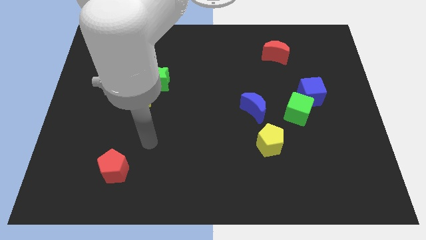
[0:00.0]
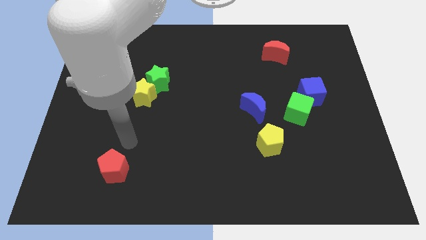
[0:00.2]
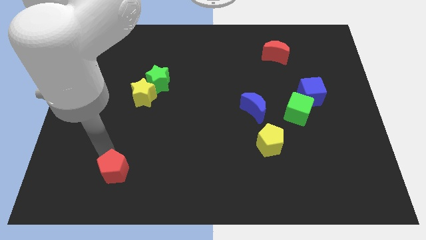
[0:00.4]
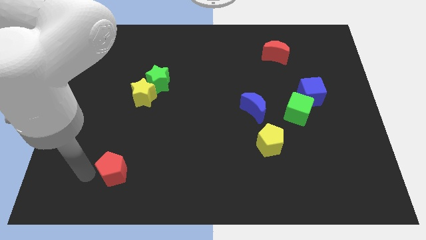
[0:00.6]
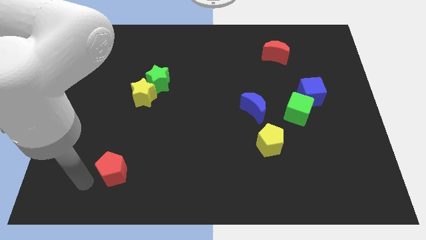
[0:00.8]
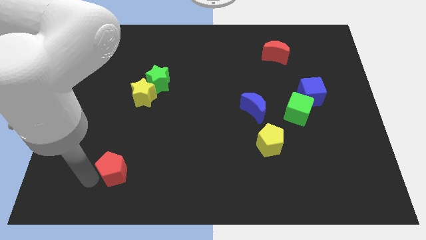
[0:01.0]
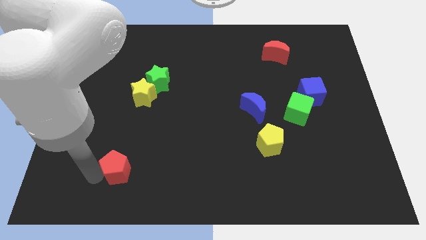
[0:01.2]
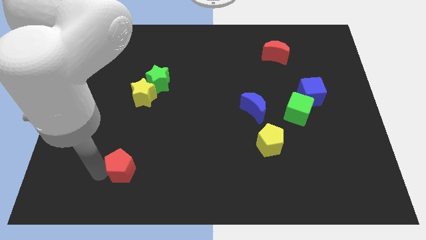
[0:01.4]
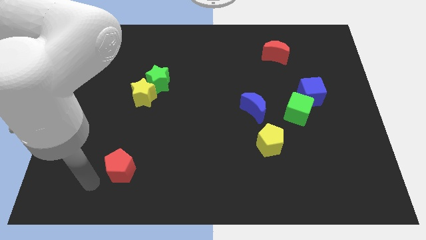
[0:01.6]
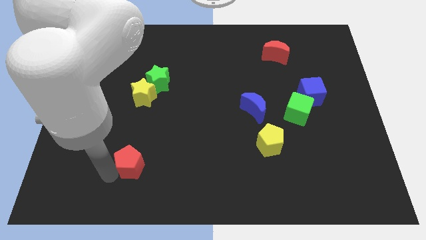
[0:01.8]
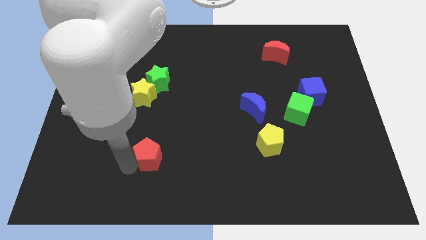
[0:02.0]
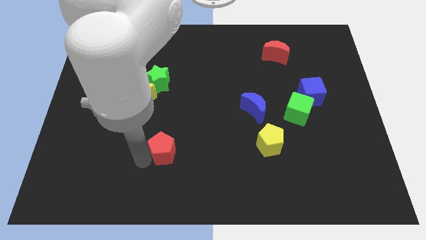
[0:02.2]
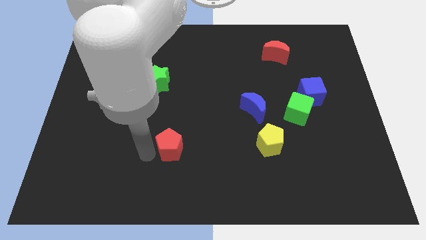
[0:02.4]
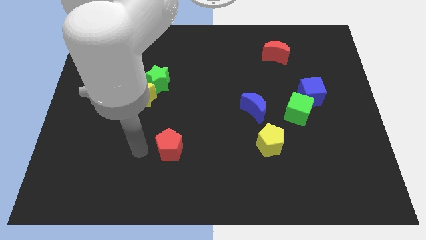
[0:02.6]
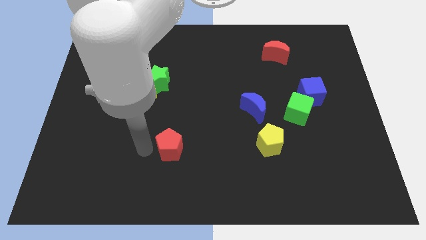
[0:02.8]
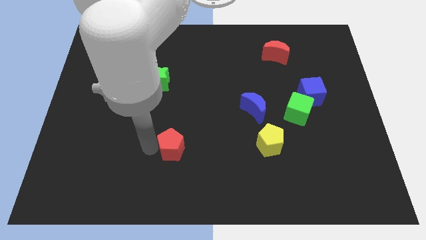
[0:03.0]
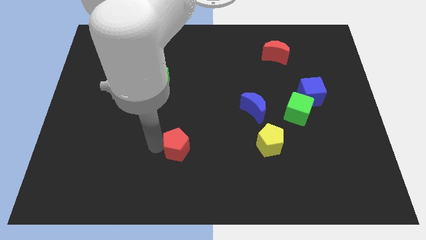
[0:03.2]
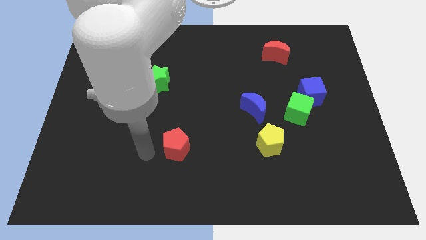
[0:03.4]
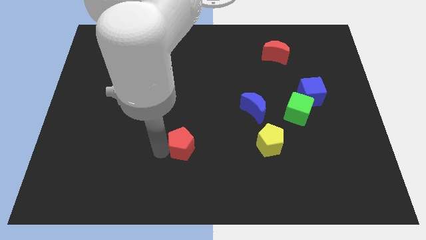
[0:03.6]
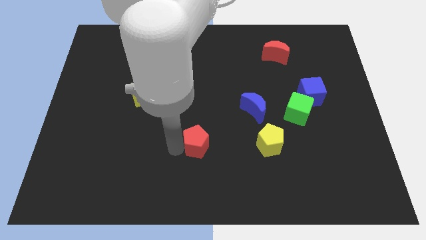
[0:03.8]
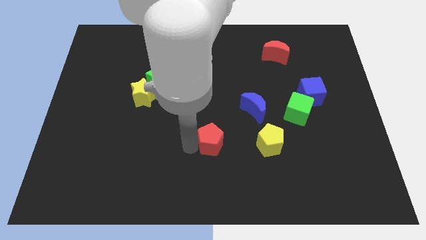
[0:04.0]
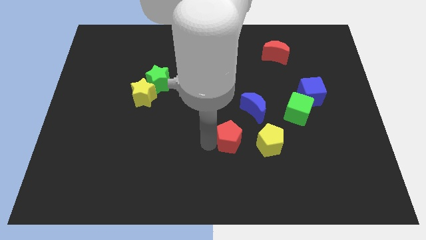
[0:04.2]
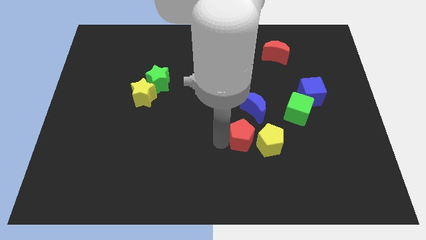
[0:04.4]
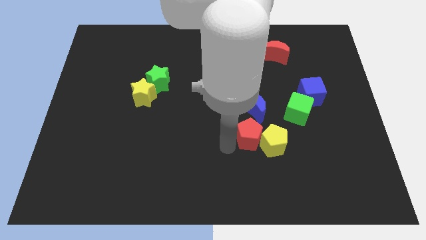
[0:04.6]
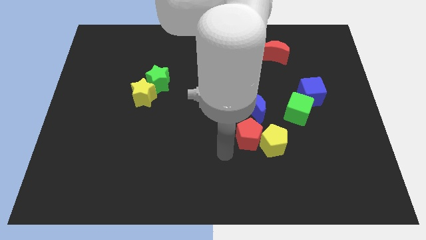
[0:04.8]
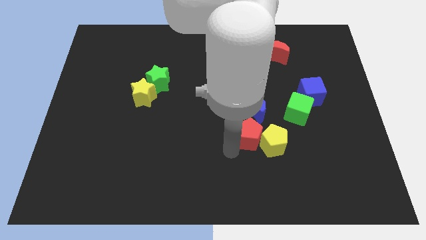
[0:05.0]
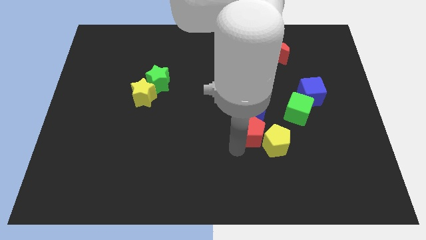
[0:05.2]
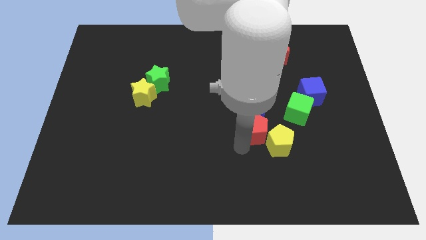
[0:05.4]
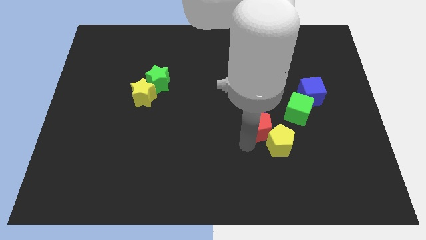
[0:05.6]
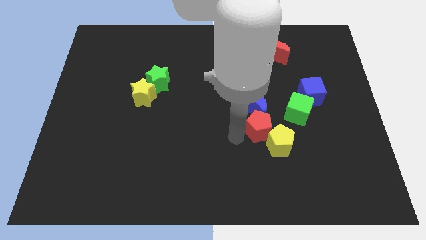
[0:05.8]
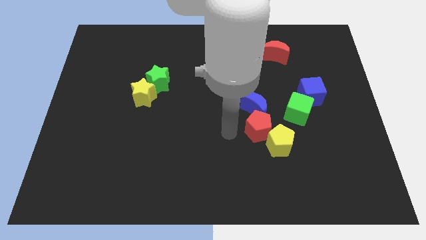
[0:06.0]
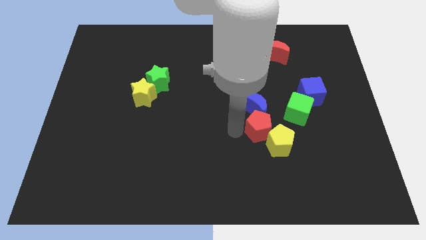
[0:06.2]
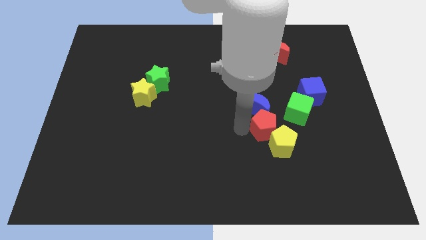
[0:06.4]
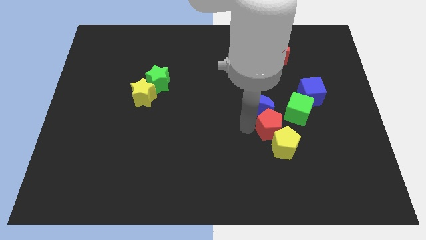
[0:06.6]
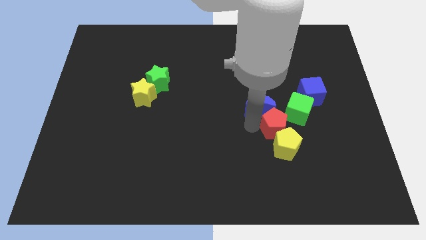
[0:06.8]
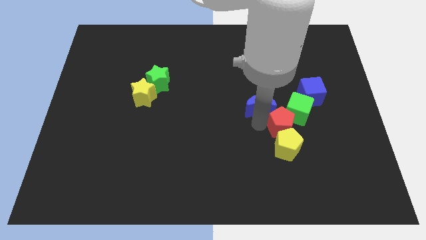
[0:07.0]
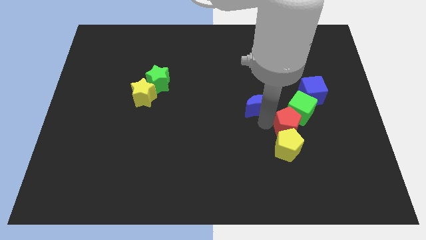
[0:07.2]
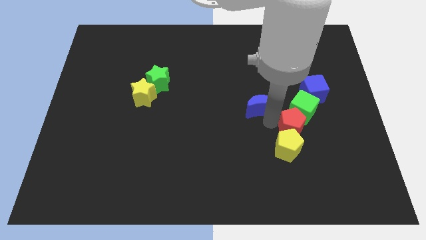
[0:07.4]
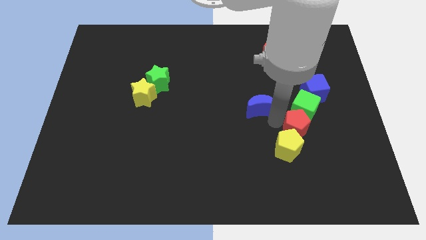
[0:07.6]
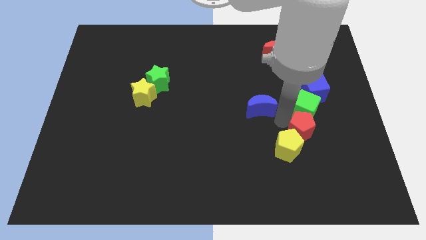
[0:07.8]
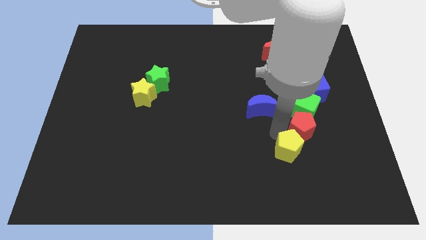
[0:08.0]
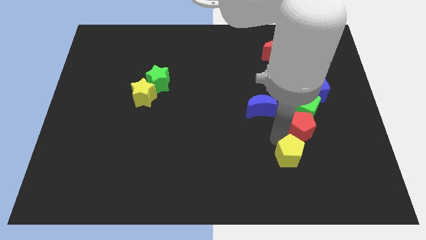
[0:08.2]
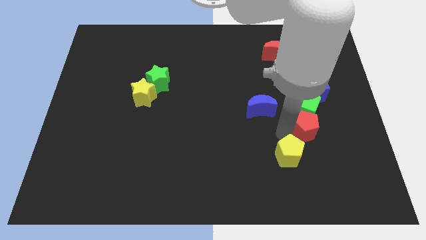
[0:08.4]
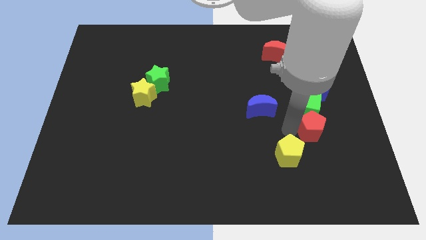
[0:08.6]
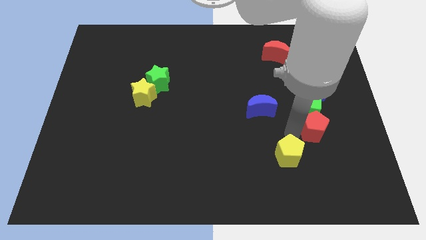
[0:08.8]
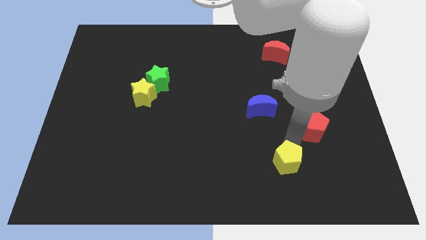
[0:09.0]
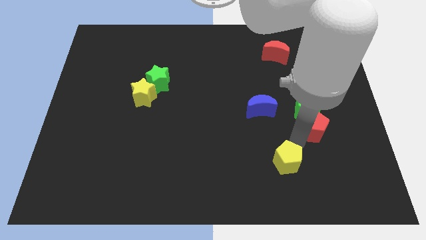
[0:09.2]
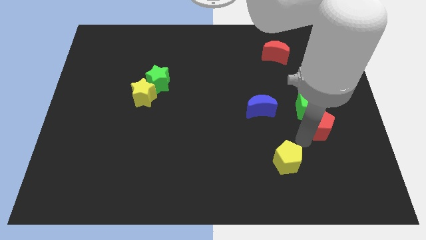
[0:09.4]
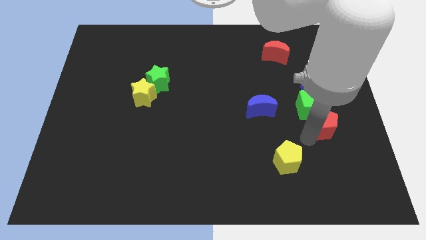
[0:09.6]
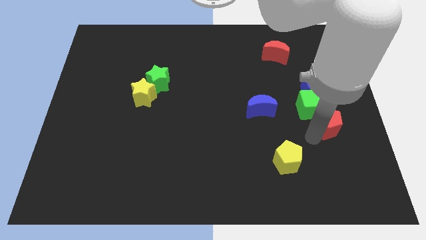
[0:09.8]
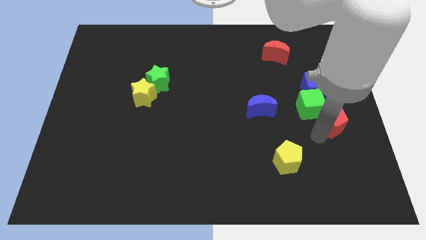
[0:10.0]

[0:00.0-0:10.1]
move the red pentagon to the right side

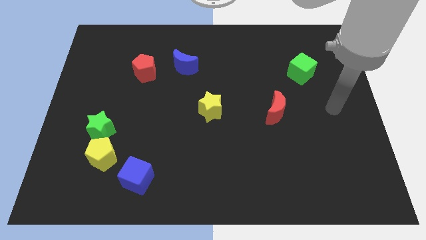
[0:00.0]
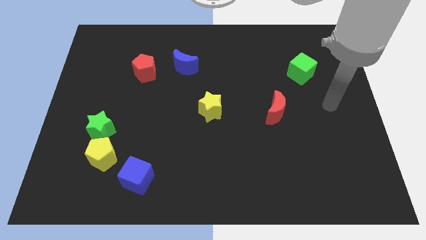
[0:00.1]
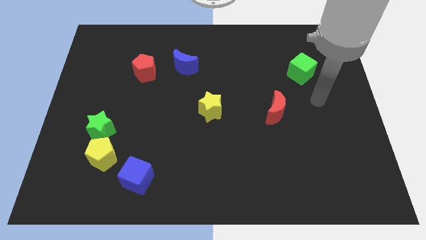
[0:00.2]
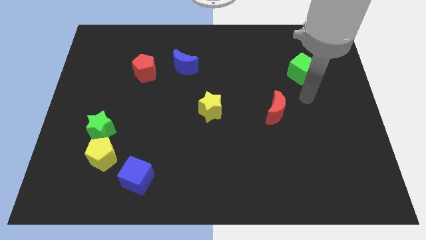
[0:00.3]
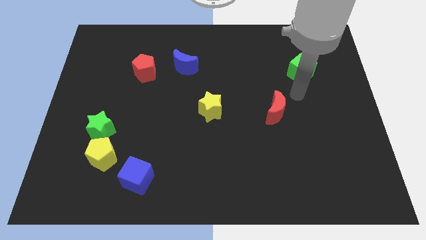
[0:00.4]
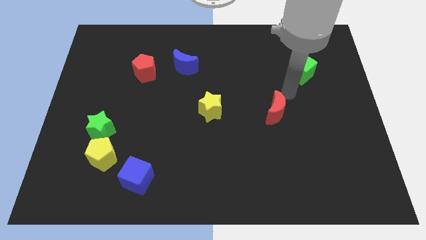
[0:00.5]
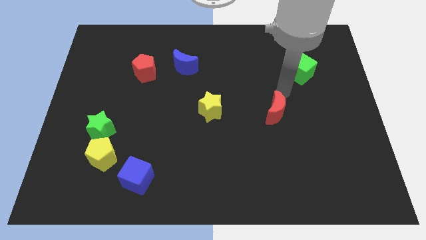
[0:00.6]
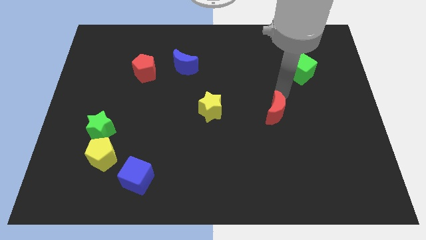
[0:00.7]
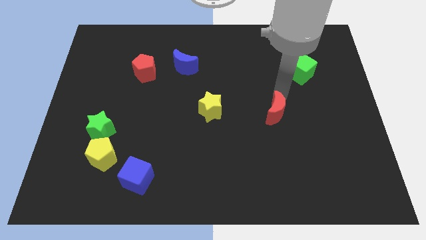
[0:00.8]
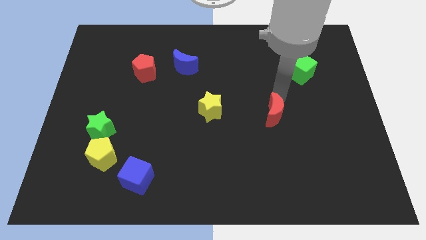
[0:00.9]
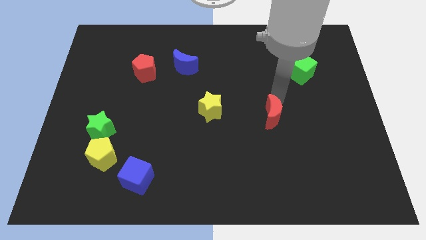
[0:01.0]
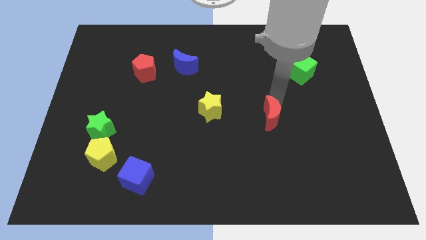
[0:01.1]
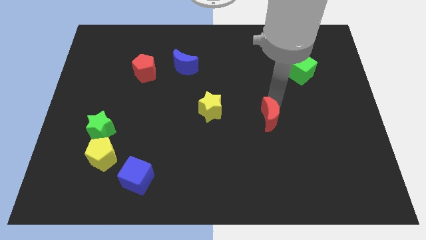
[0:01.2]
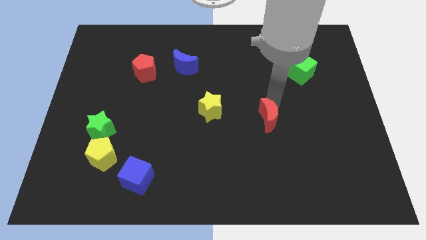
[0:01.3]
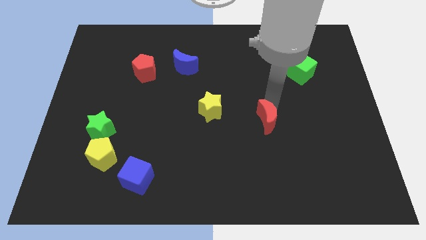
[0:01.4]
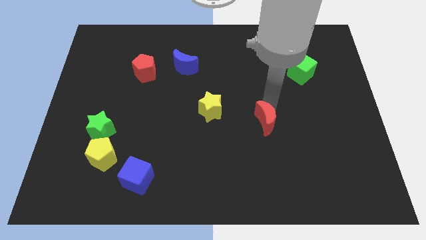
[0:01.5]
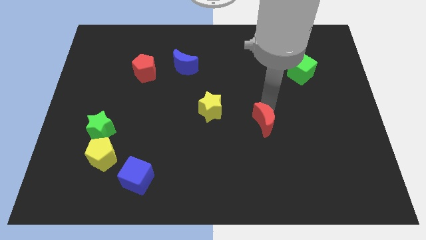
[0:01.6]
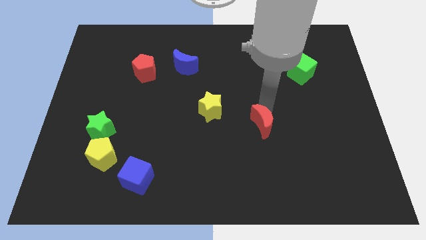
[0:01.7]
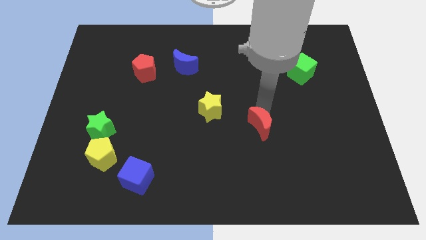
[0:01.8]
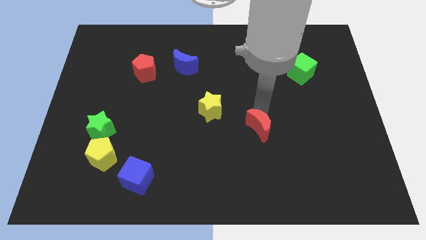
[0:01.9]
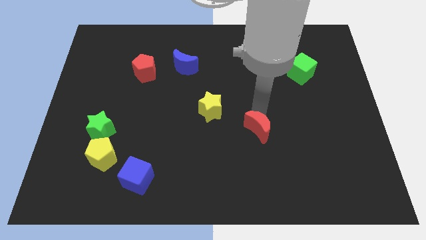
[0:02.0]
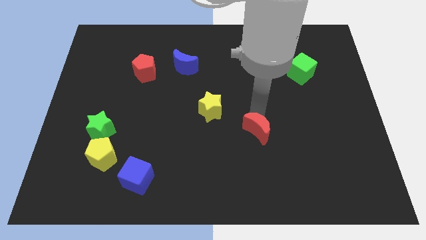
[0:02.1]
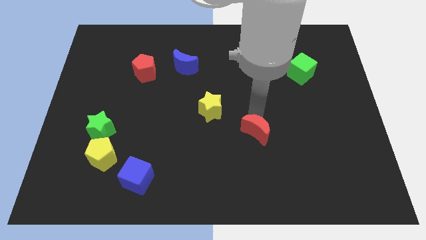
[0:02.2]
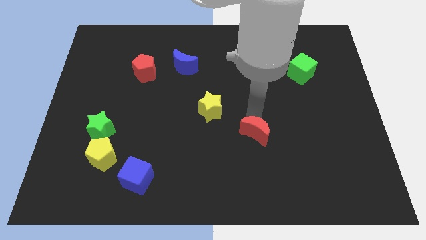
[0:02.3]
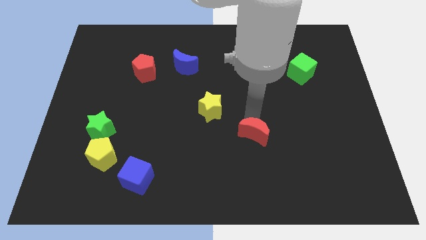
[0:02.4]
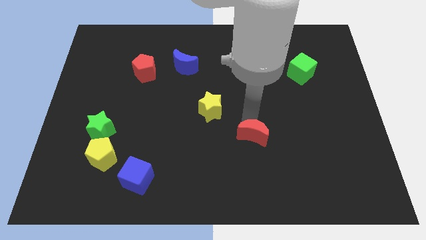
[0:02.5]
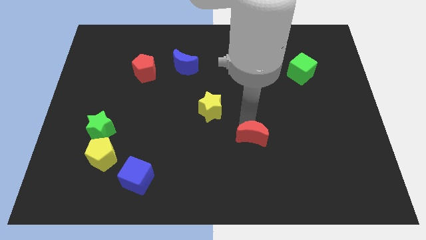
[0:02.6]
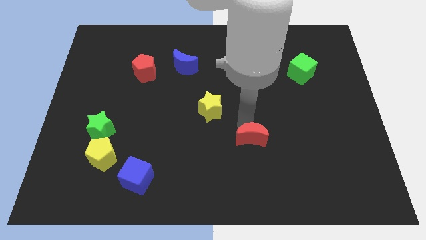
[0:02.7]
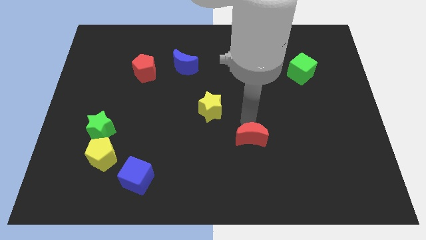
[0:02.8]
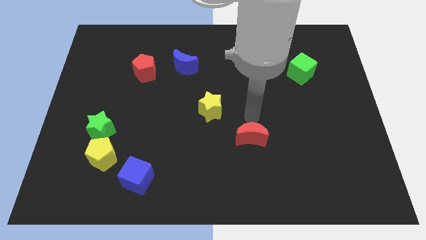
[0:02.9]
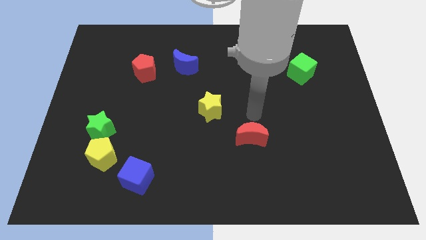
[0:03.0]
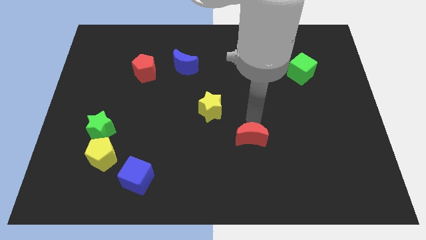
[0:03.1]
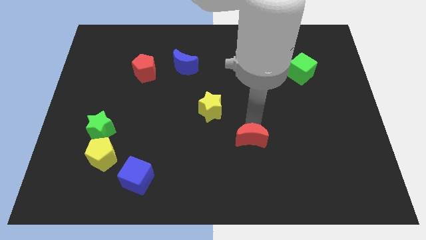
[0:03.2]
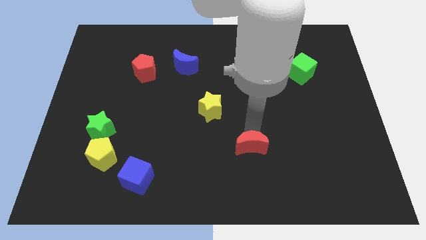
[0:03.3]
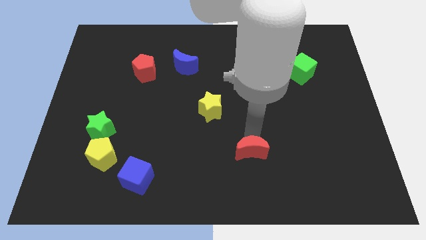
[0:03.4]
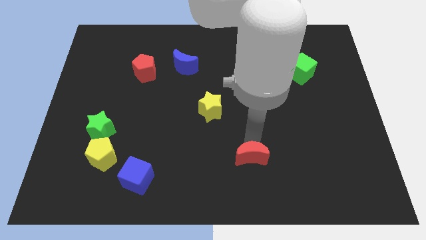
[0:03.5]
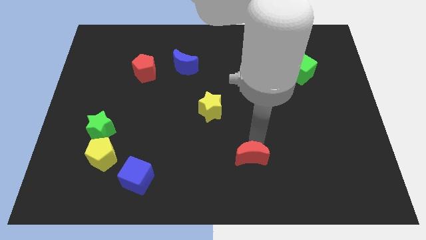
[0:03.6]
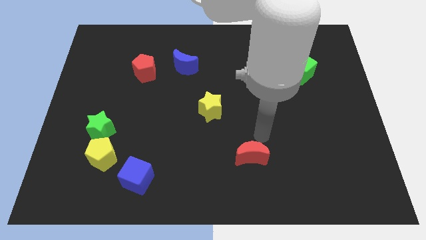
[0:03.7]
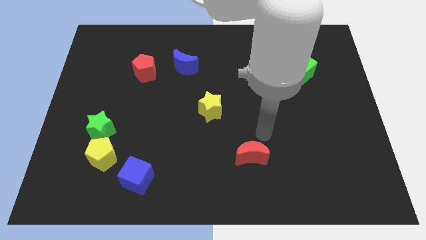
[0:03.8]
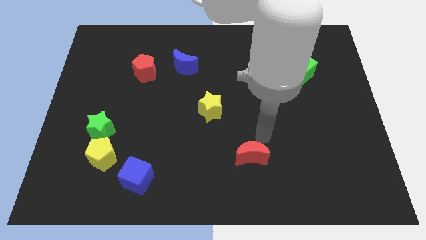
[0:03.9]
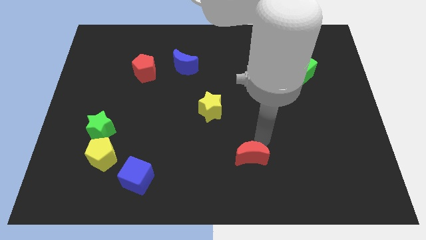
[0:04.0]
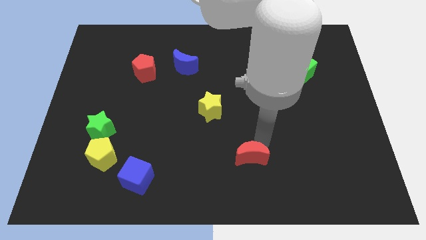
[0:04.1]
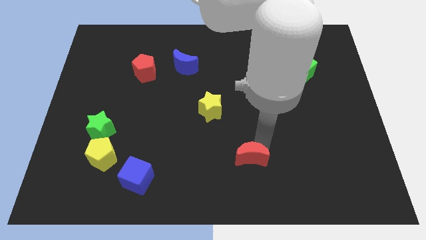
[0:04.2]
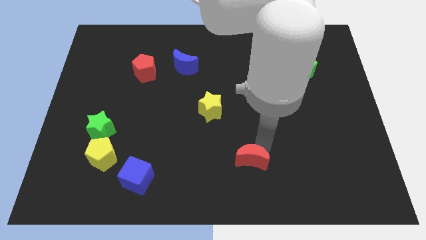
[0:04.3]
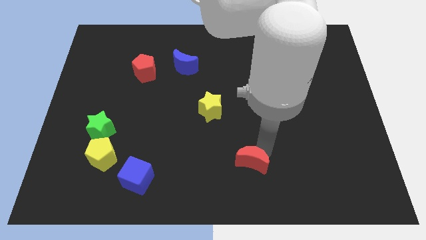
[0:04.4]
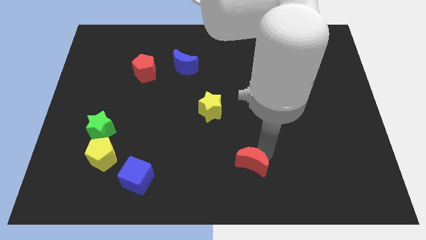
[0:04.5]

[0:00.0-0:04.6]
push the red moon to the bottom side
